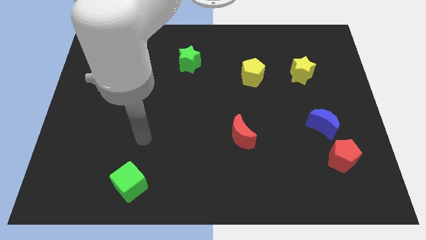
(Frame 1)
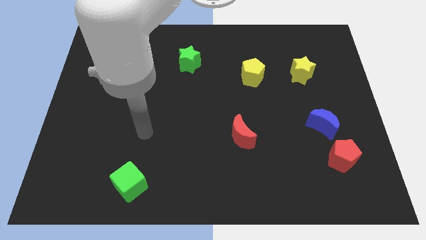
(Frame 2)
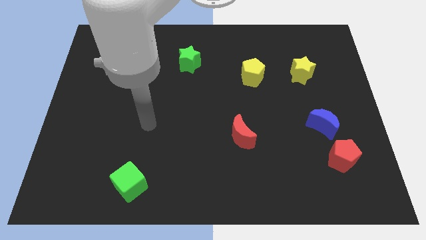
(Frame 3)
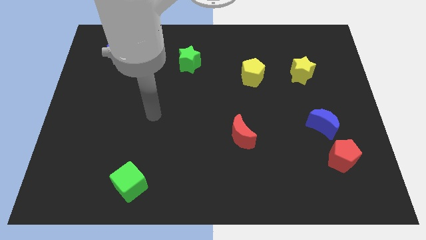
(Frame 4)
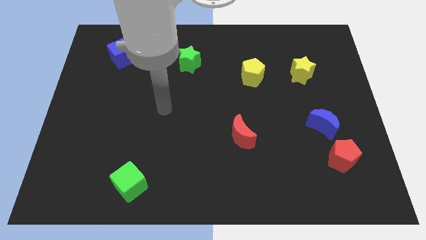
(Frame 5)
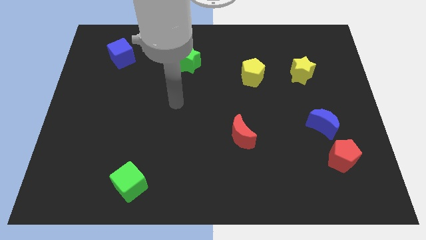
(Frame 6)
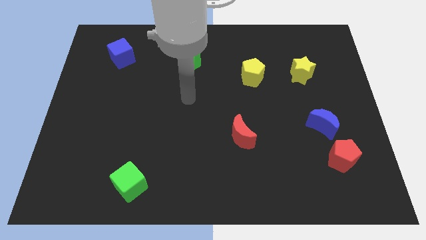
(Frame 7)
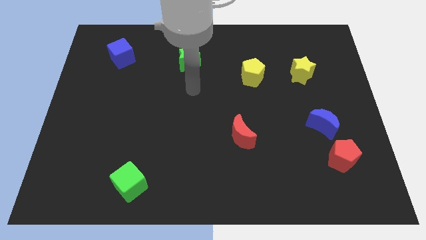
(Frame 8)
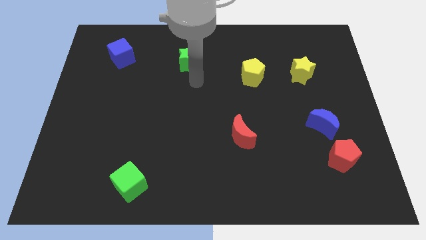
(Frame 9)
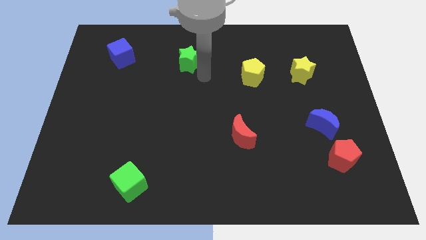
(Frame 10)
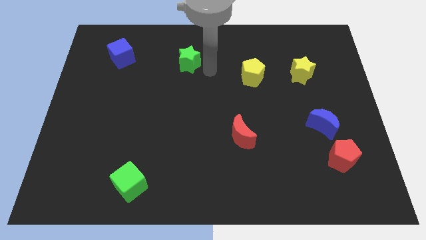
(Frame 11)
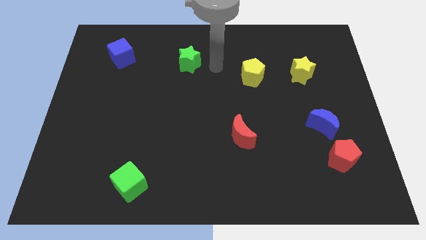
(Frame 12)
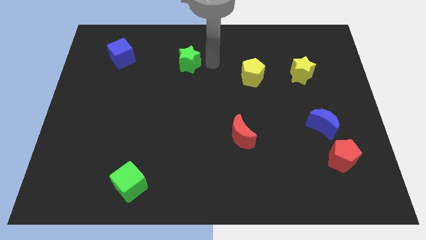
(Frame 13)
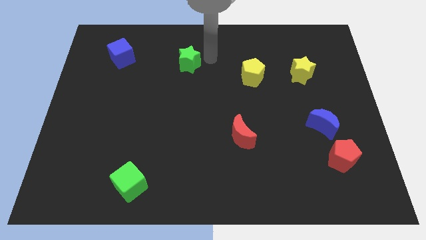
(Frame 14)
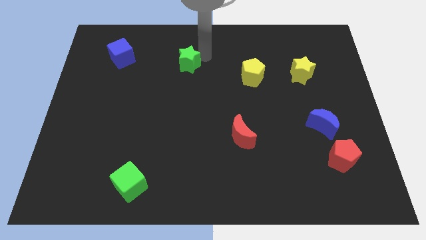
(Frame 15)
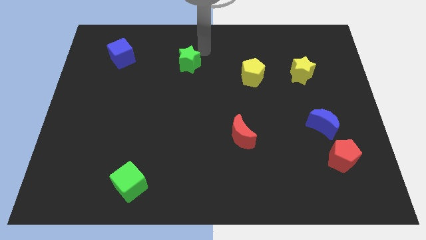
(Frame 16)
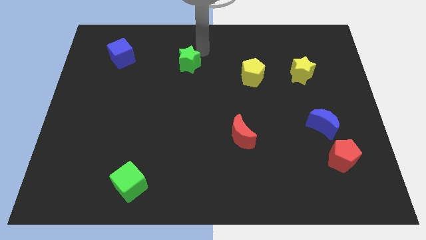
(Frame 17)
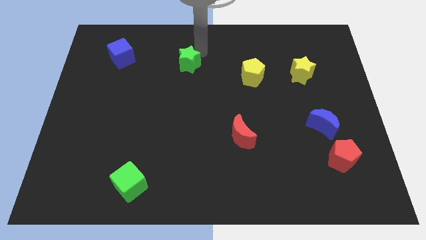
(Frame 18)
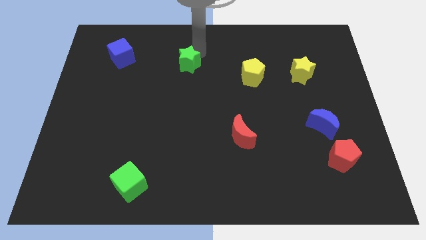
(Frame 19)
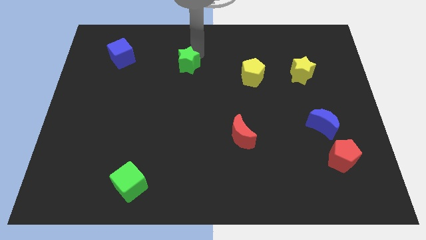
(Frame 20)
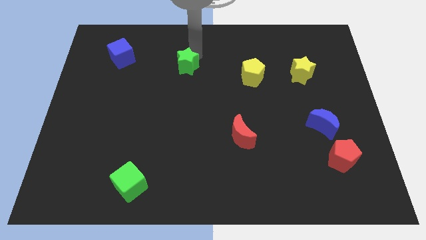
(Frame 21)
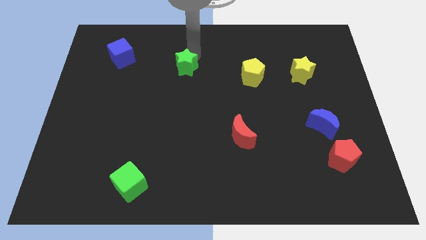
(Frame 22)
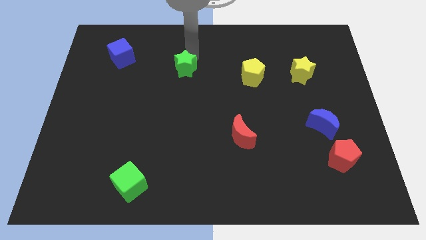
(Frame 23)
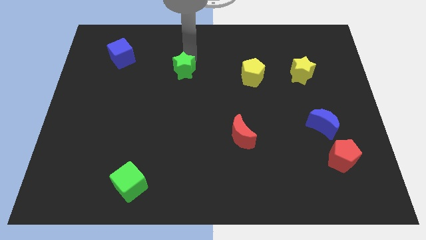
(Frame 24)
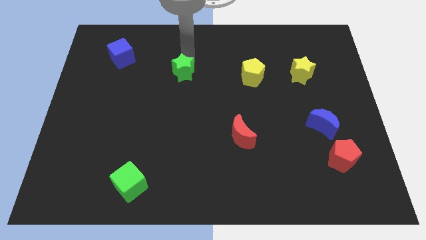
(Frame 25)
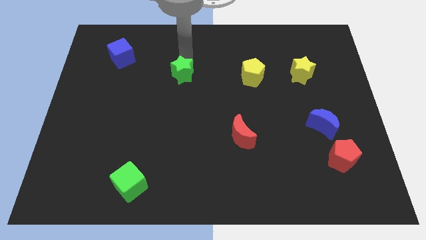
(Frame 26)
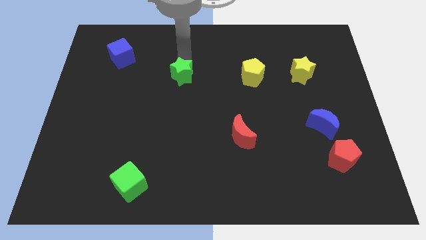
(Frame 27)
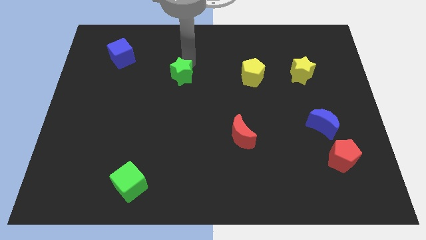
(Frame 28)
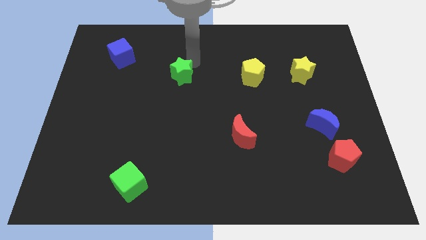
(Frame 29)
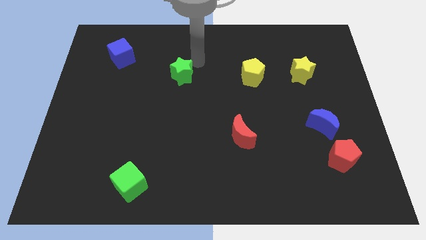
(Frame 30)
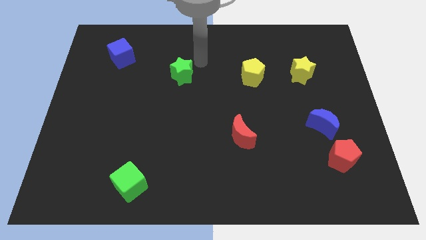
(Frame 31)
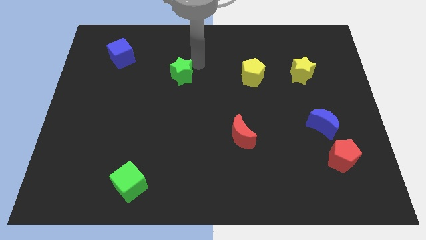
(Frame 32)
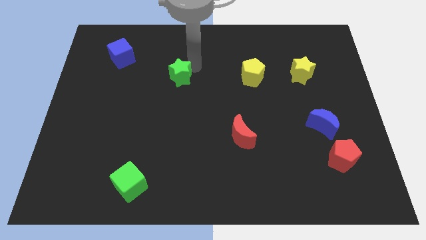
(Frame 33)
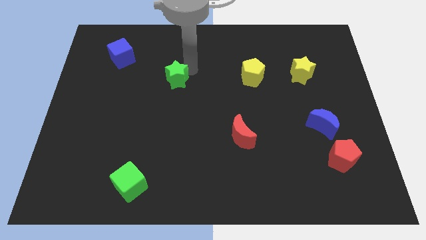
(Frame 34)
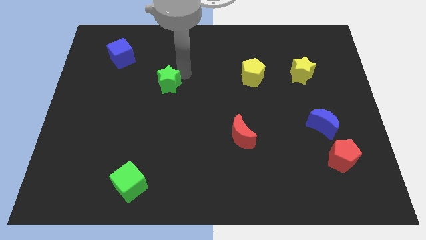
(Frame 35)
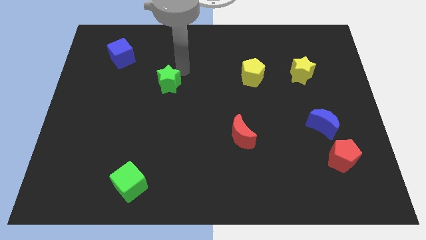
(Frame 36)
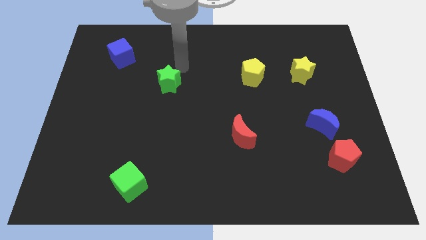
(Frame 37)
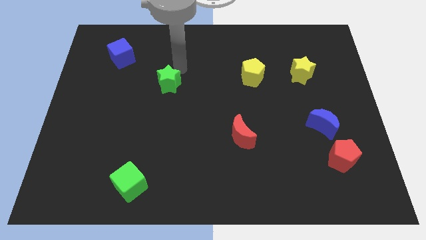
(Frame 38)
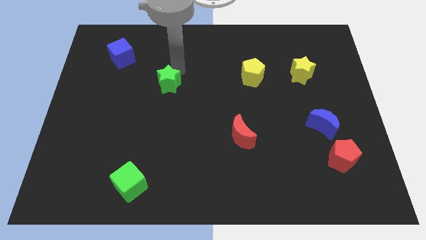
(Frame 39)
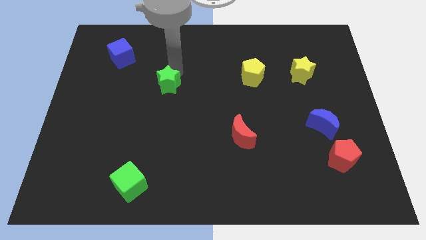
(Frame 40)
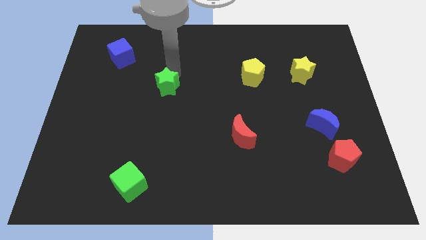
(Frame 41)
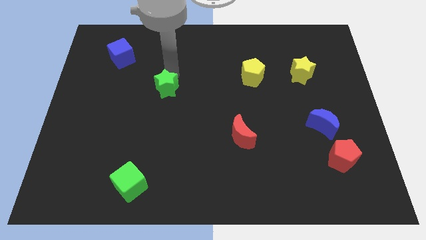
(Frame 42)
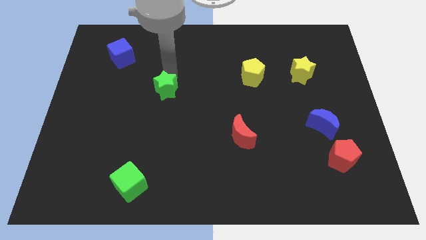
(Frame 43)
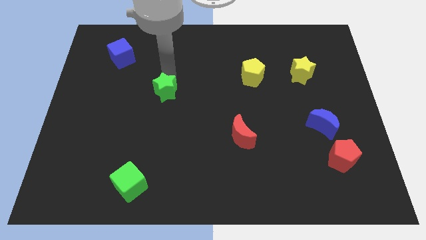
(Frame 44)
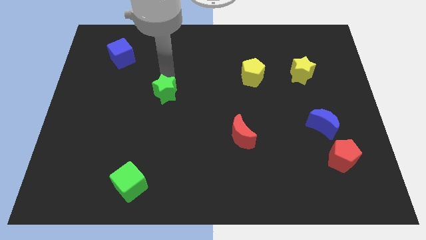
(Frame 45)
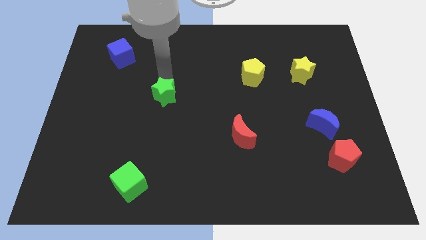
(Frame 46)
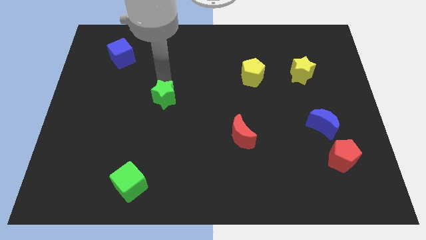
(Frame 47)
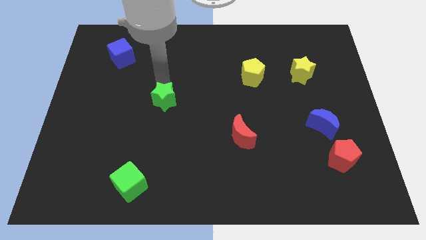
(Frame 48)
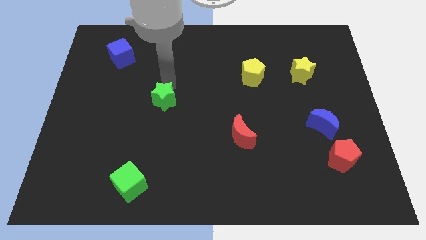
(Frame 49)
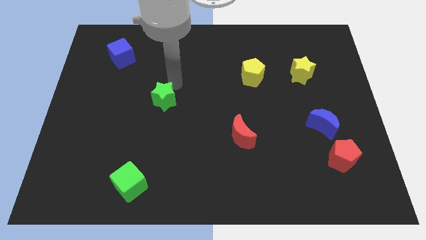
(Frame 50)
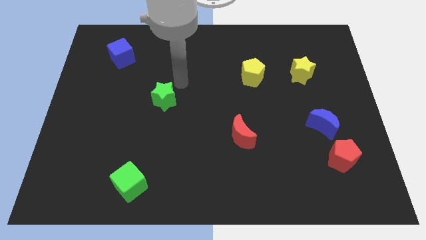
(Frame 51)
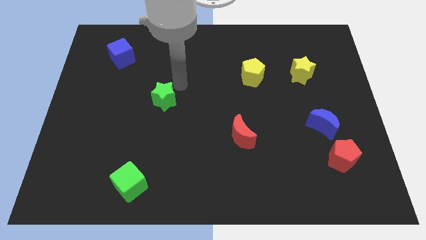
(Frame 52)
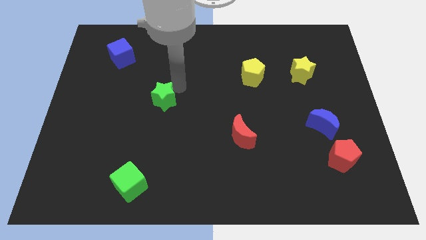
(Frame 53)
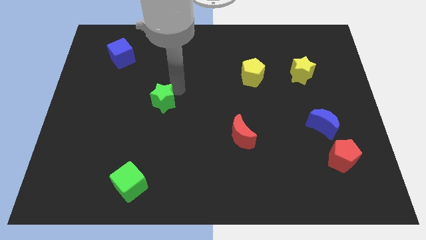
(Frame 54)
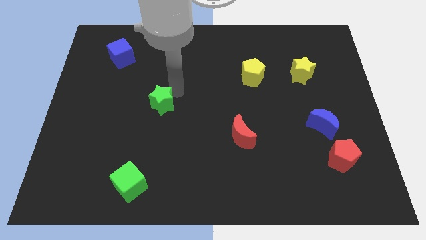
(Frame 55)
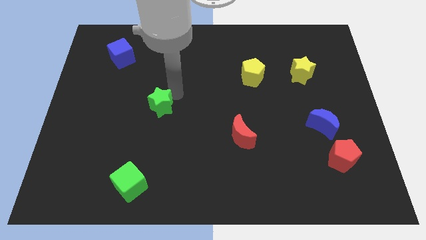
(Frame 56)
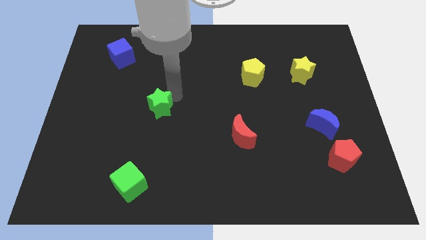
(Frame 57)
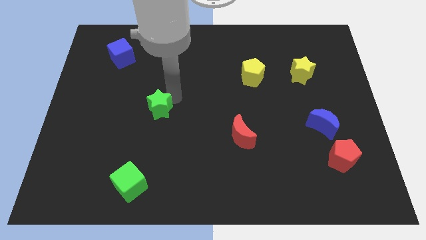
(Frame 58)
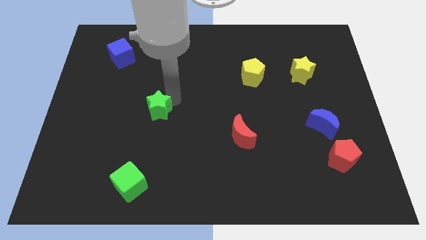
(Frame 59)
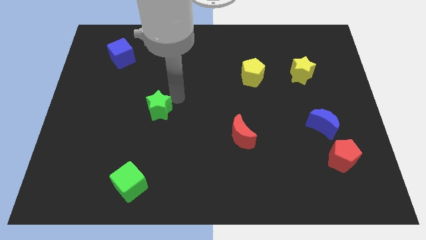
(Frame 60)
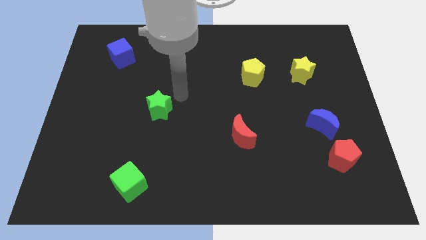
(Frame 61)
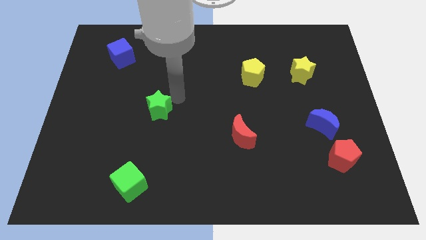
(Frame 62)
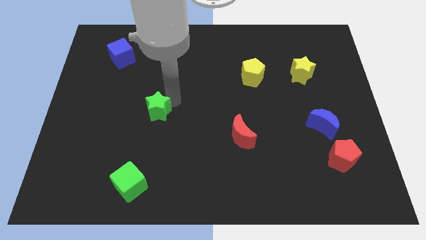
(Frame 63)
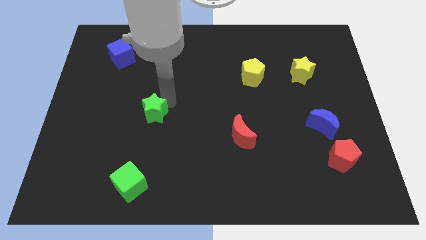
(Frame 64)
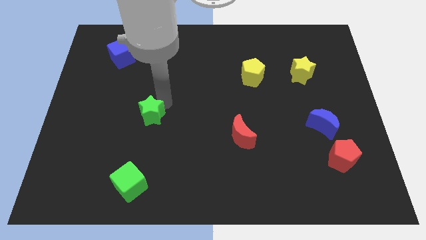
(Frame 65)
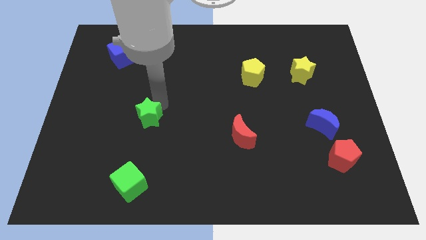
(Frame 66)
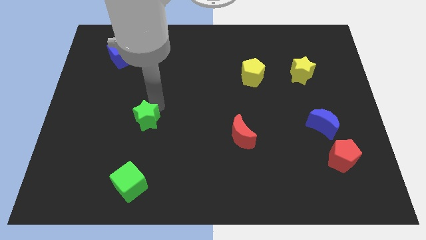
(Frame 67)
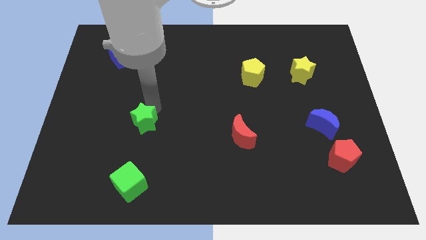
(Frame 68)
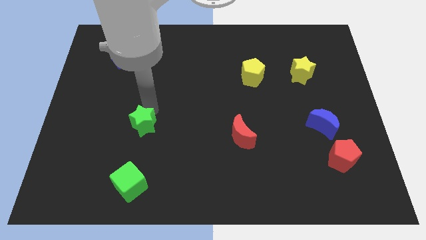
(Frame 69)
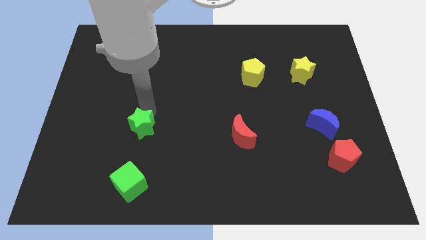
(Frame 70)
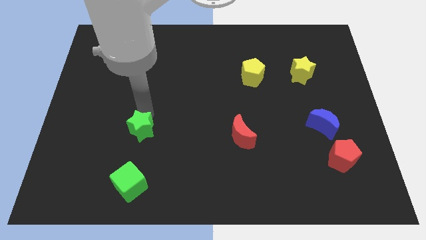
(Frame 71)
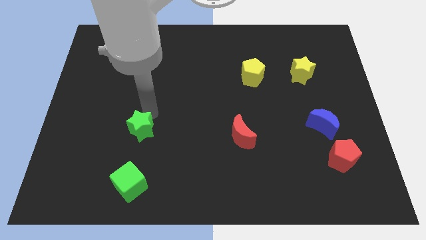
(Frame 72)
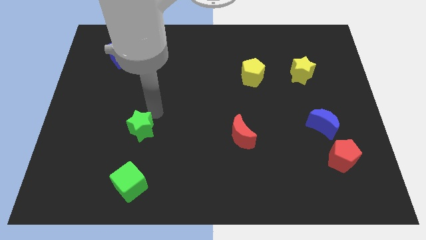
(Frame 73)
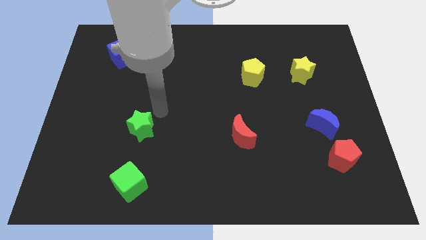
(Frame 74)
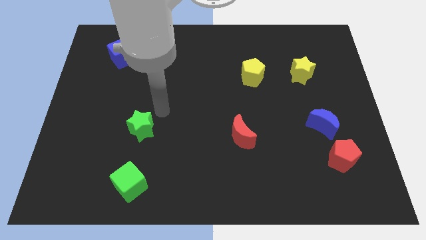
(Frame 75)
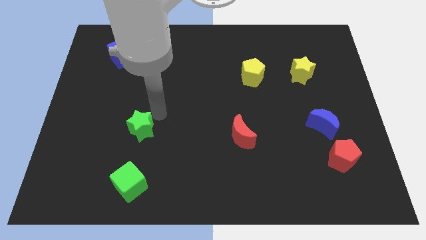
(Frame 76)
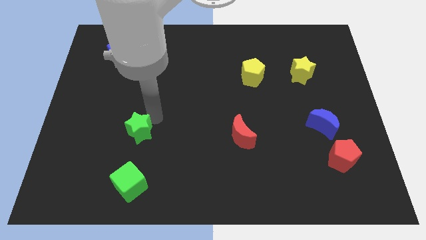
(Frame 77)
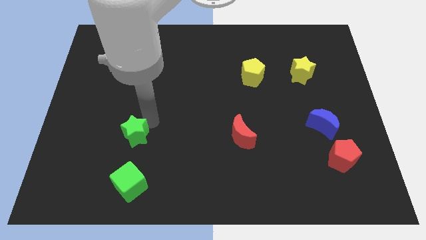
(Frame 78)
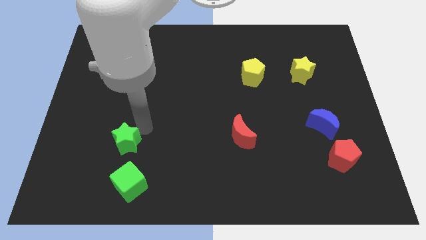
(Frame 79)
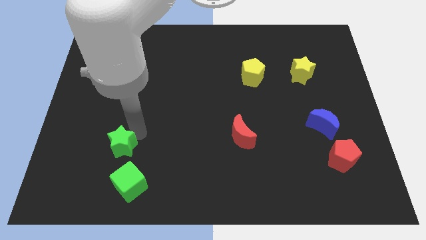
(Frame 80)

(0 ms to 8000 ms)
move the green star diagonally up and to the left of the green cube
